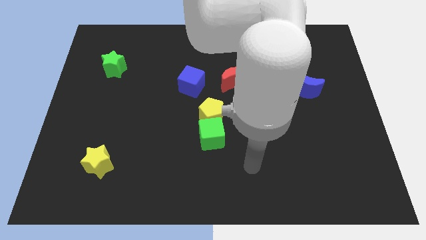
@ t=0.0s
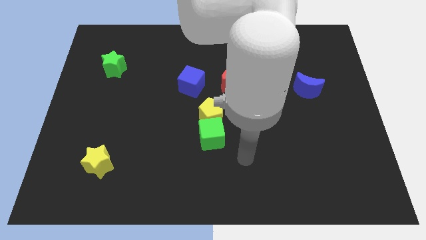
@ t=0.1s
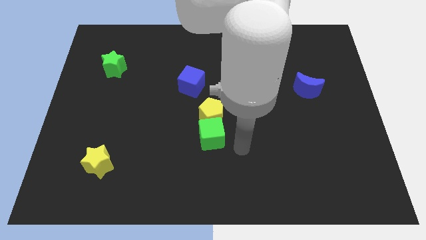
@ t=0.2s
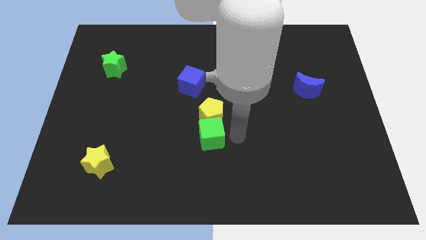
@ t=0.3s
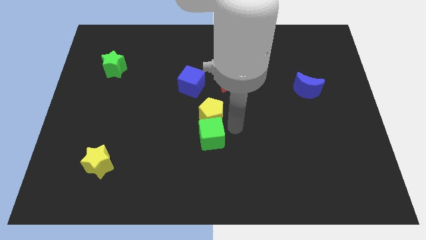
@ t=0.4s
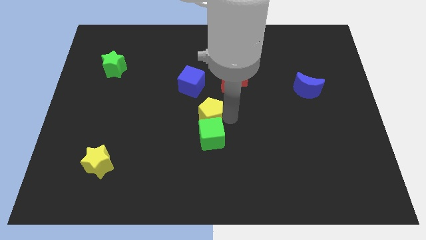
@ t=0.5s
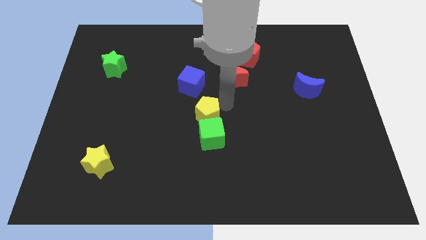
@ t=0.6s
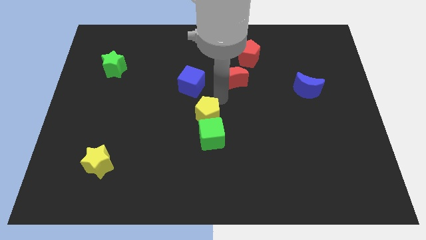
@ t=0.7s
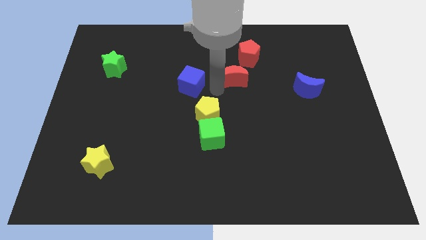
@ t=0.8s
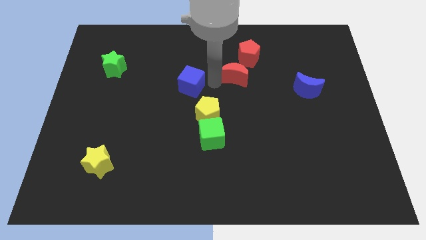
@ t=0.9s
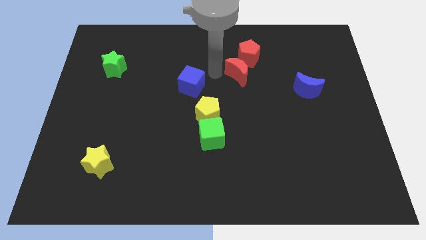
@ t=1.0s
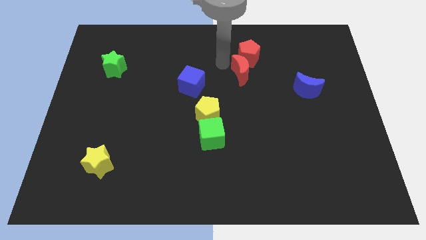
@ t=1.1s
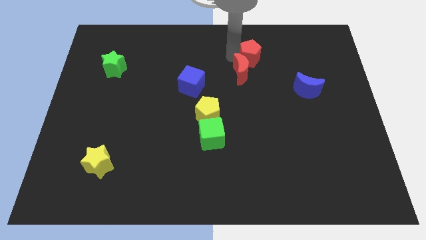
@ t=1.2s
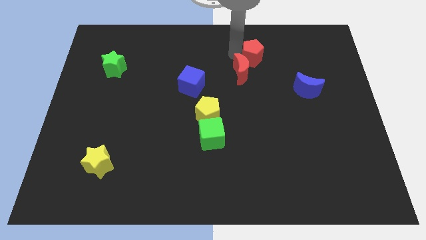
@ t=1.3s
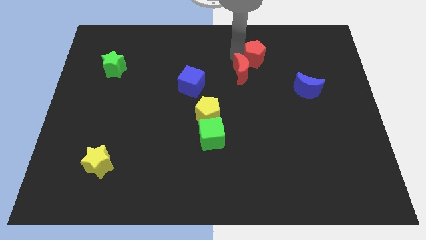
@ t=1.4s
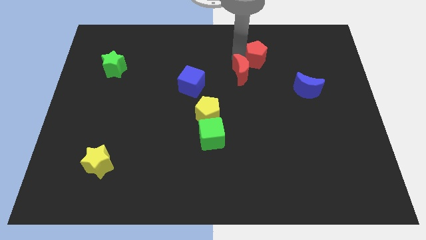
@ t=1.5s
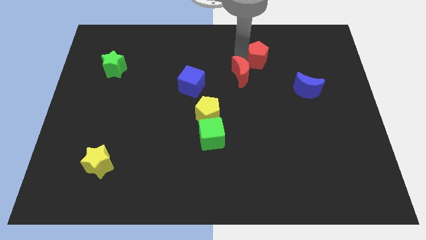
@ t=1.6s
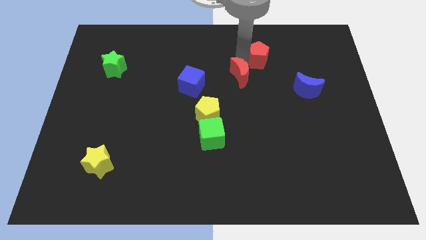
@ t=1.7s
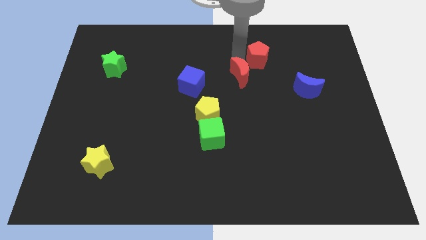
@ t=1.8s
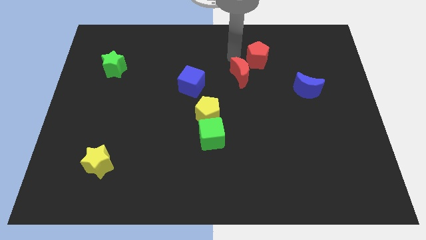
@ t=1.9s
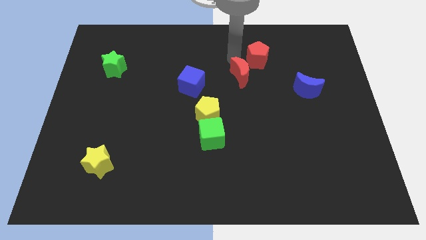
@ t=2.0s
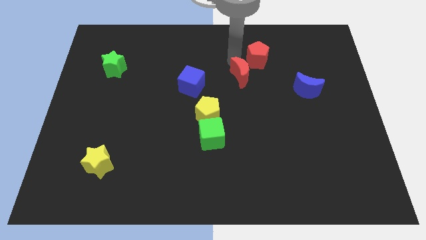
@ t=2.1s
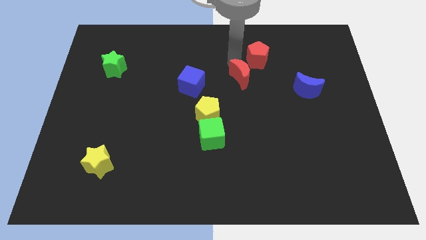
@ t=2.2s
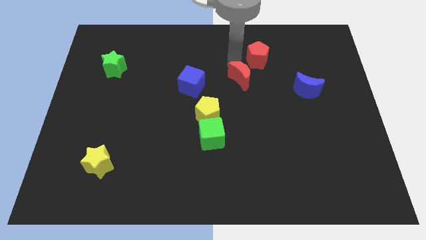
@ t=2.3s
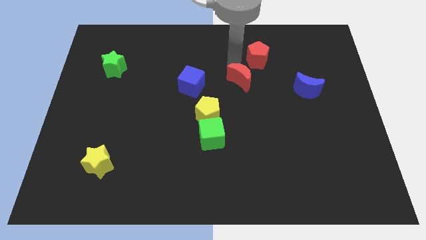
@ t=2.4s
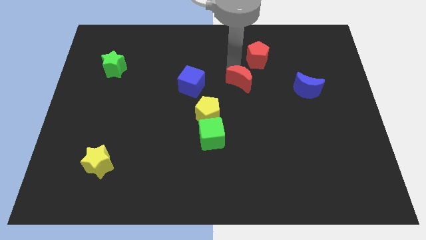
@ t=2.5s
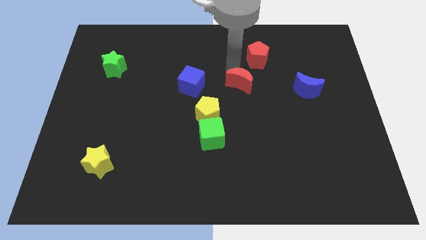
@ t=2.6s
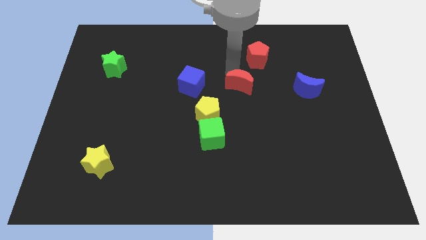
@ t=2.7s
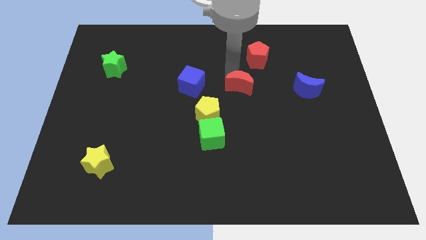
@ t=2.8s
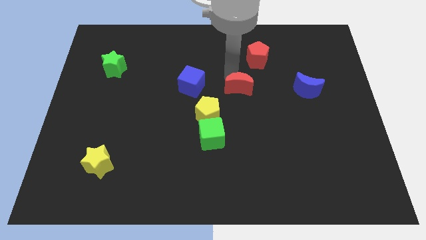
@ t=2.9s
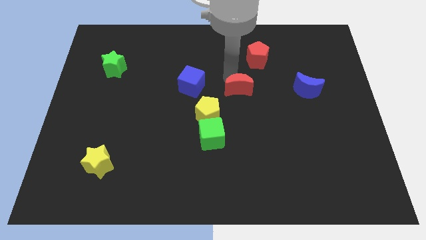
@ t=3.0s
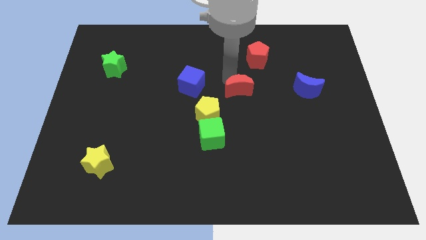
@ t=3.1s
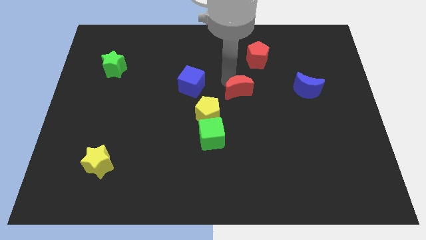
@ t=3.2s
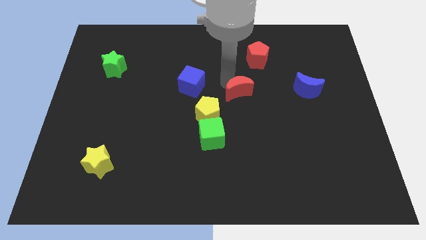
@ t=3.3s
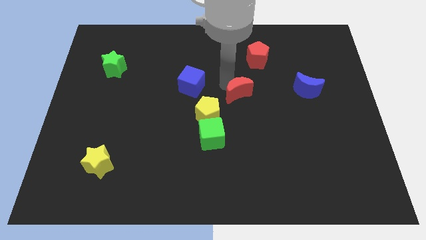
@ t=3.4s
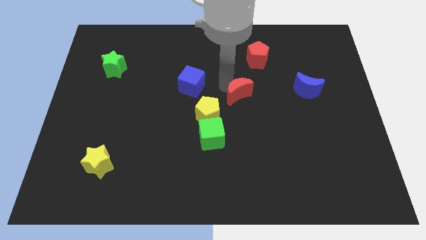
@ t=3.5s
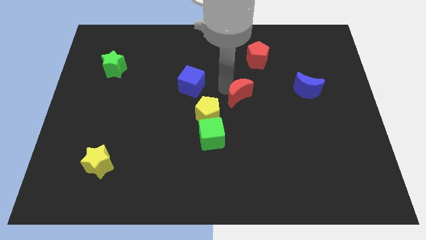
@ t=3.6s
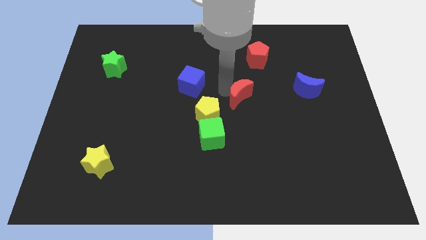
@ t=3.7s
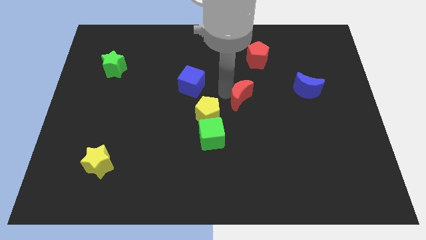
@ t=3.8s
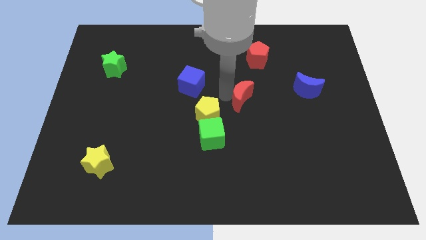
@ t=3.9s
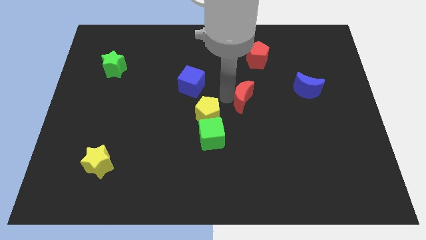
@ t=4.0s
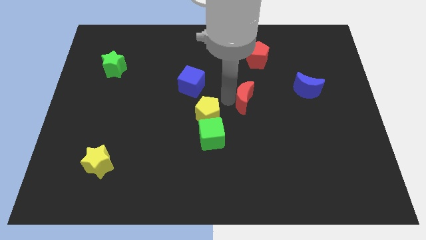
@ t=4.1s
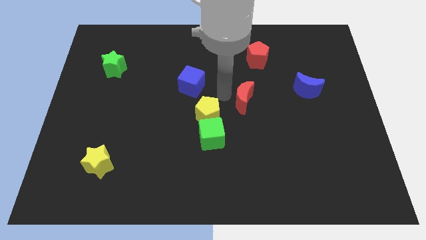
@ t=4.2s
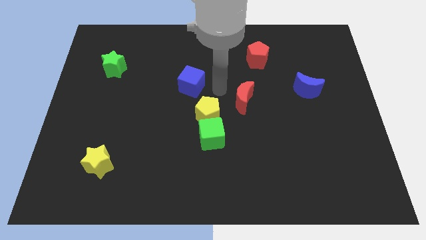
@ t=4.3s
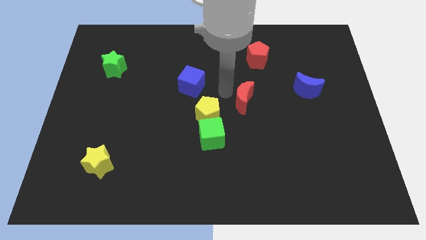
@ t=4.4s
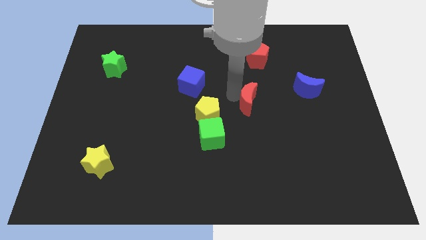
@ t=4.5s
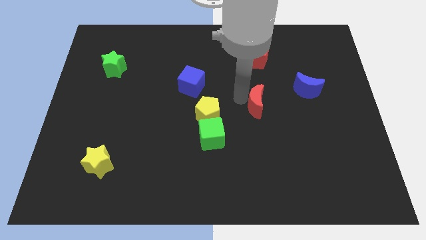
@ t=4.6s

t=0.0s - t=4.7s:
slide the red moon slightly downwards and then right

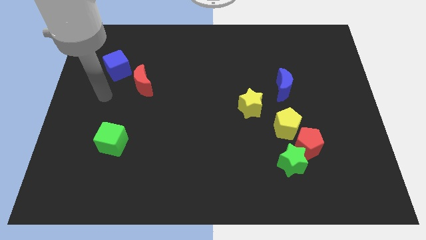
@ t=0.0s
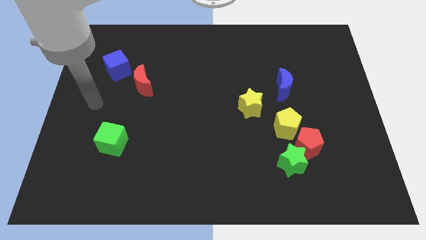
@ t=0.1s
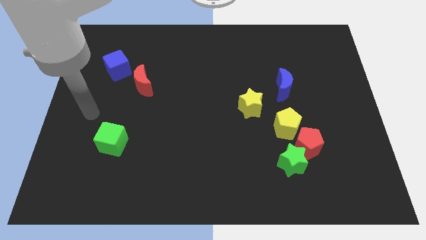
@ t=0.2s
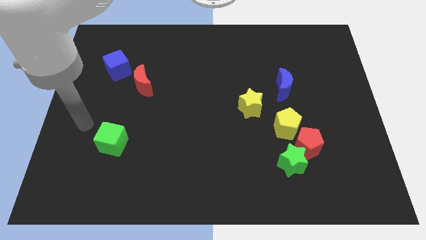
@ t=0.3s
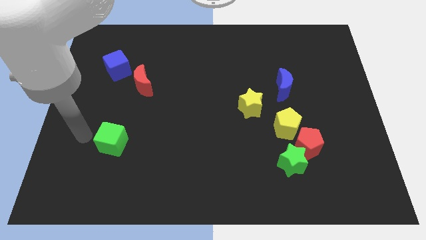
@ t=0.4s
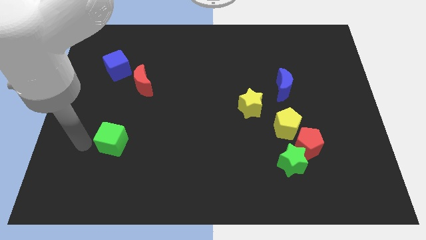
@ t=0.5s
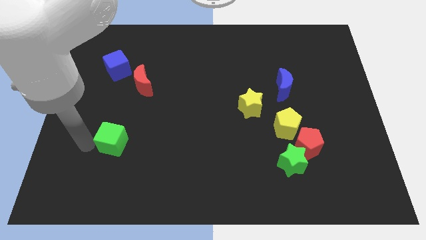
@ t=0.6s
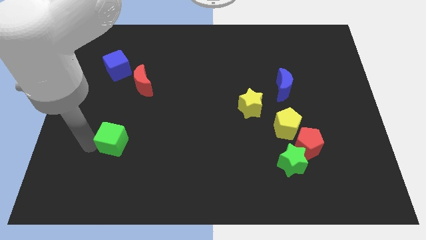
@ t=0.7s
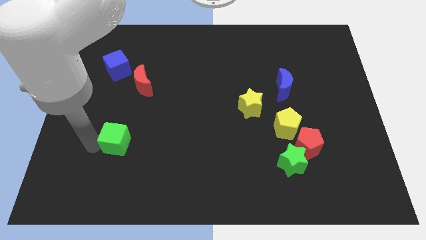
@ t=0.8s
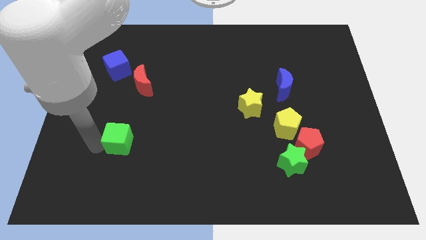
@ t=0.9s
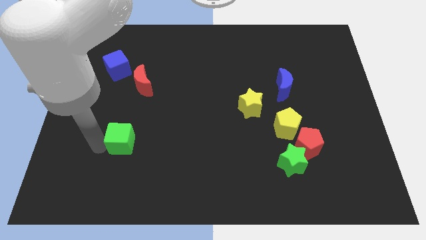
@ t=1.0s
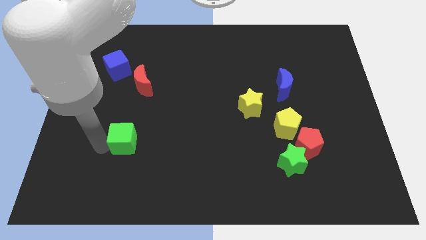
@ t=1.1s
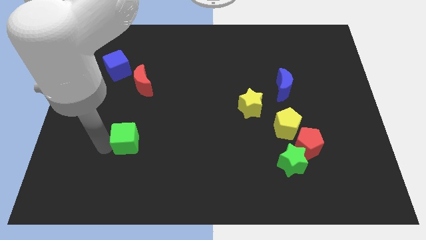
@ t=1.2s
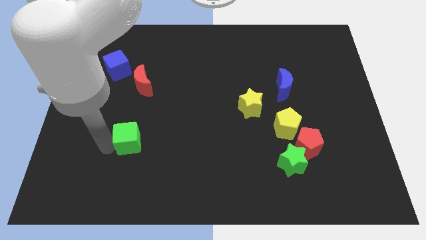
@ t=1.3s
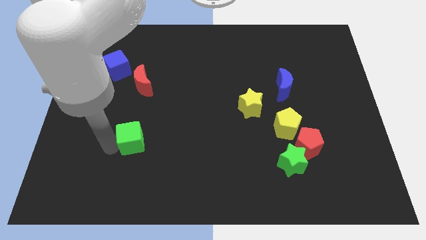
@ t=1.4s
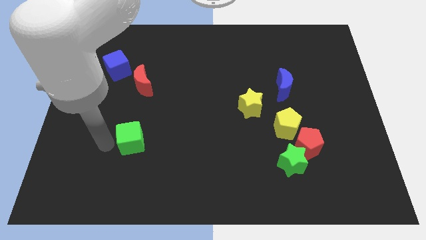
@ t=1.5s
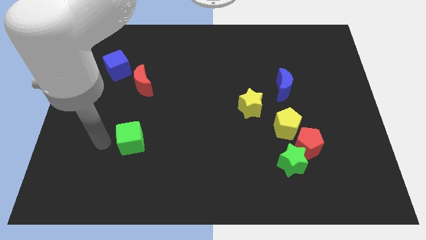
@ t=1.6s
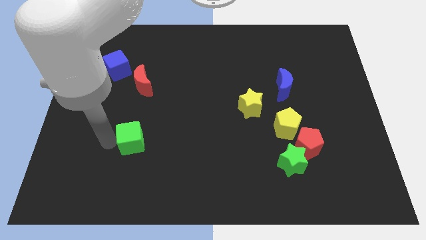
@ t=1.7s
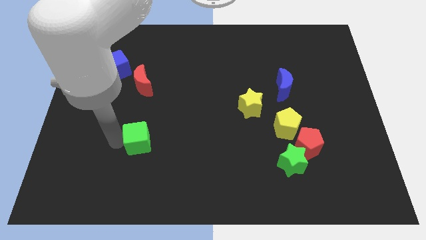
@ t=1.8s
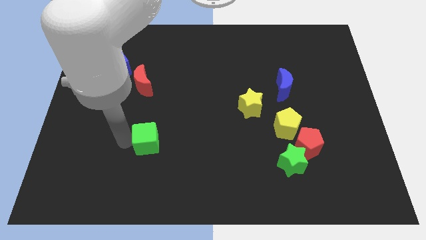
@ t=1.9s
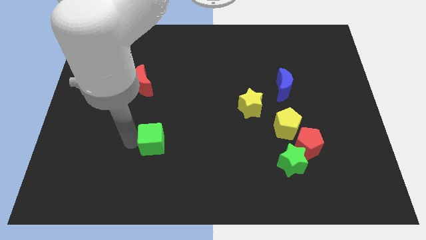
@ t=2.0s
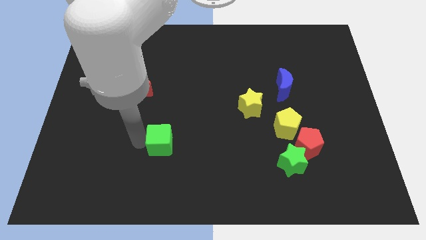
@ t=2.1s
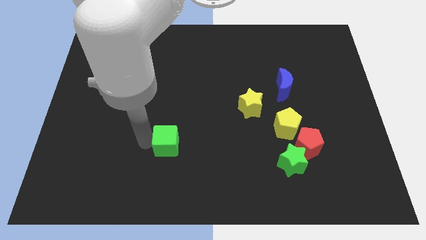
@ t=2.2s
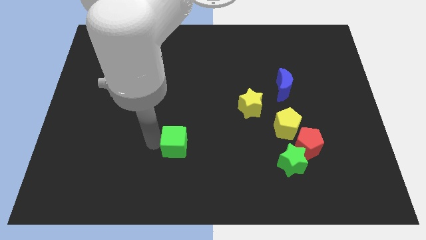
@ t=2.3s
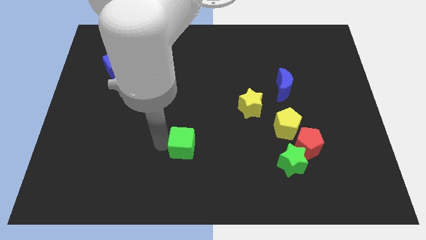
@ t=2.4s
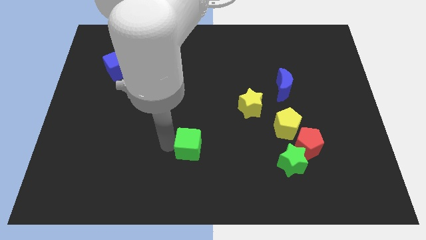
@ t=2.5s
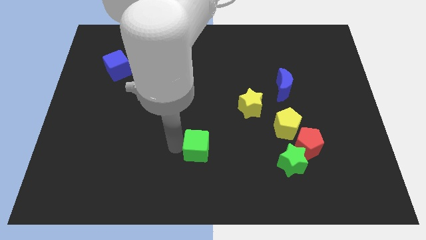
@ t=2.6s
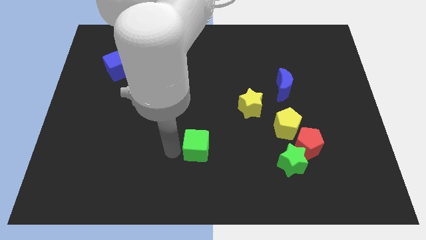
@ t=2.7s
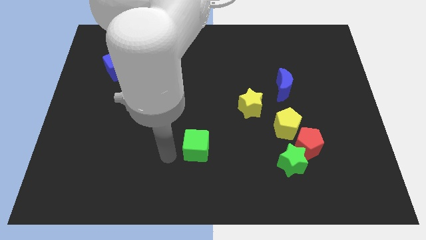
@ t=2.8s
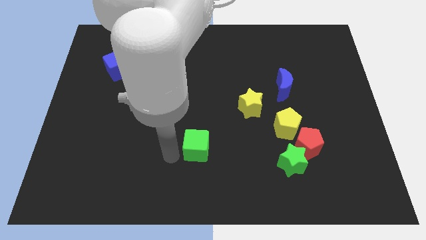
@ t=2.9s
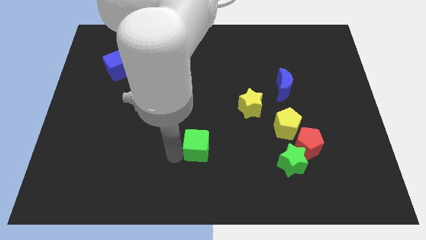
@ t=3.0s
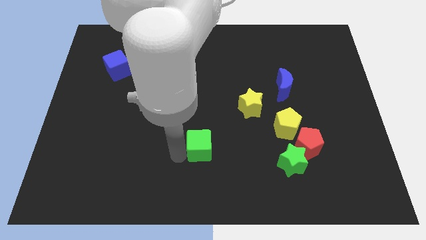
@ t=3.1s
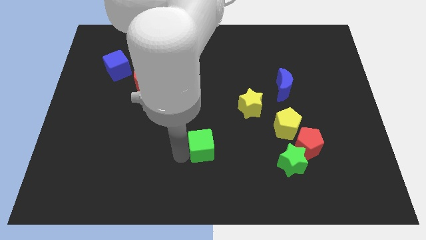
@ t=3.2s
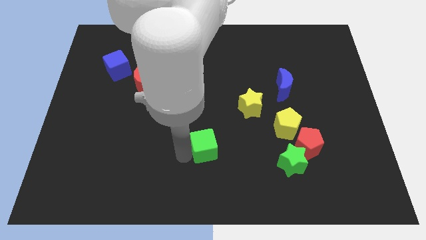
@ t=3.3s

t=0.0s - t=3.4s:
move the green cube to the right
